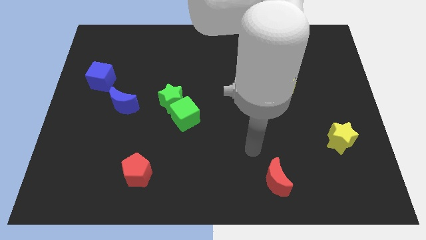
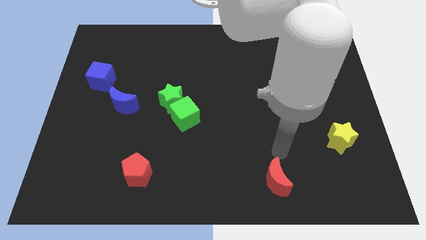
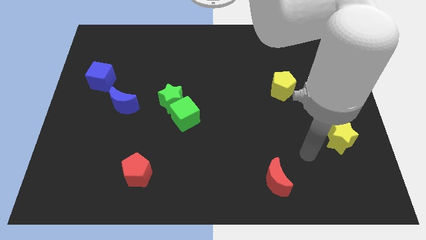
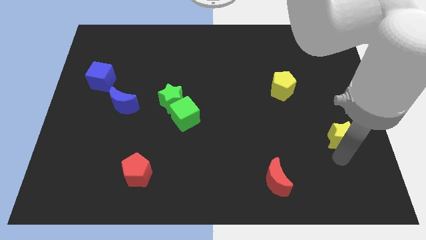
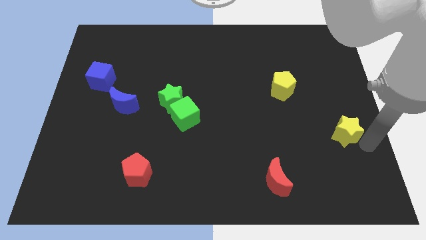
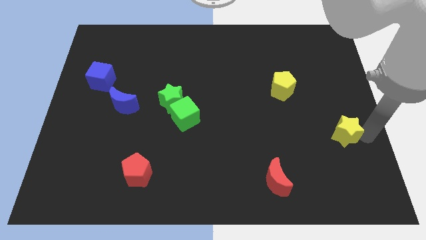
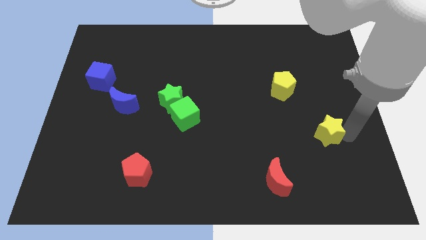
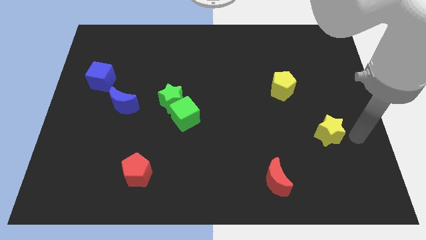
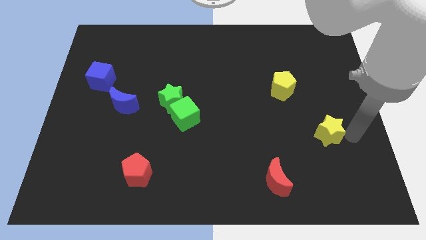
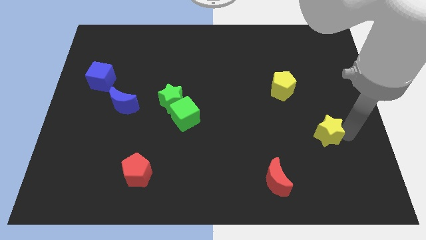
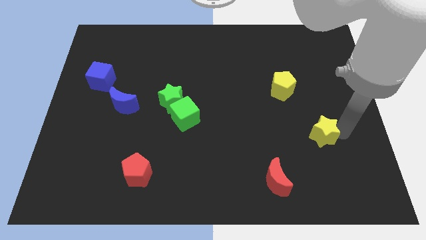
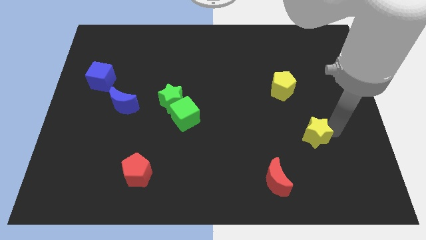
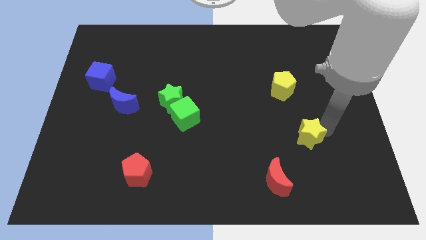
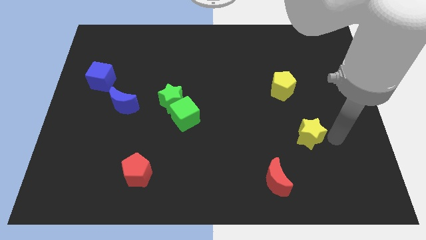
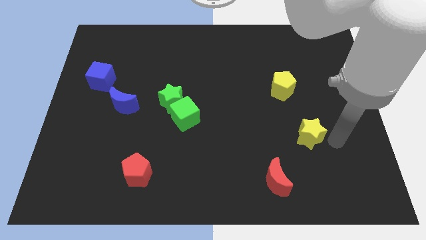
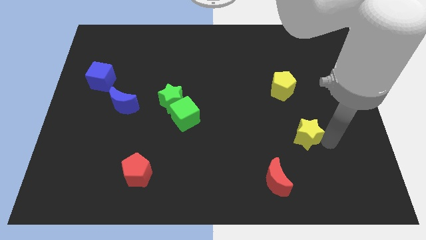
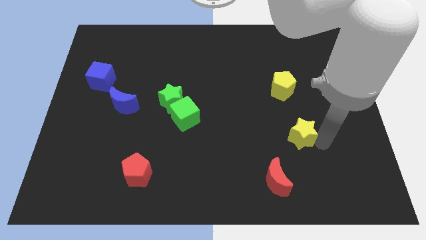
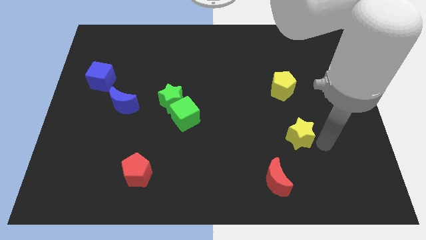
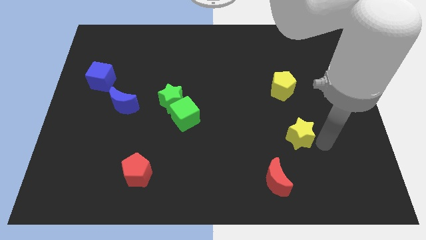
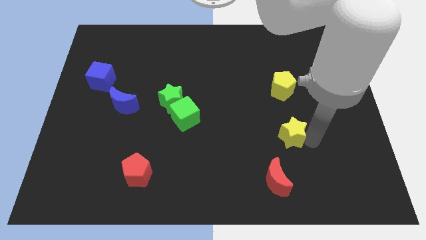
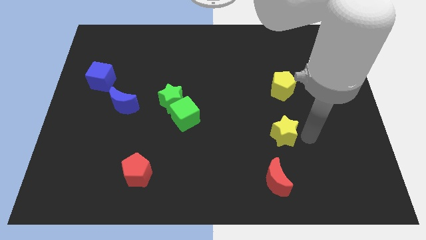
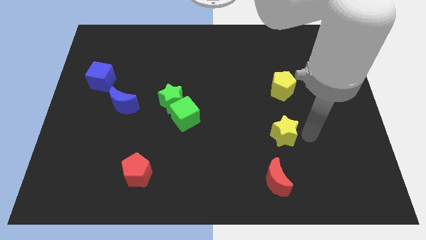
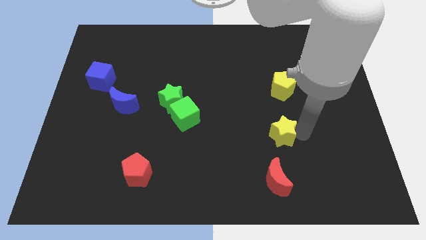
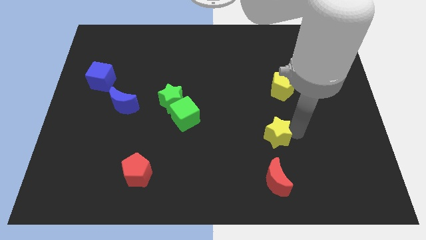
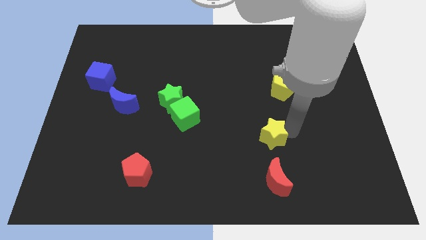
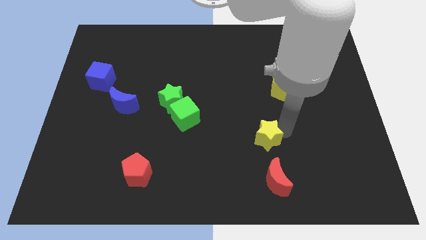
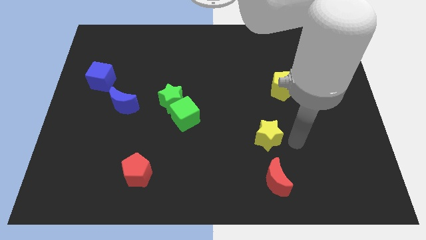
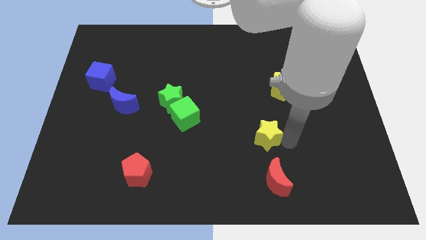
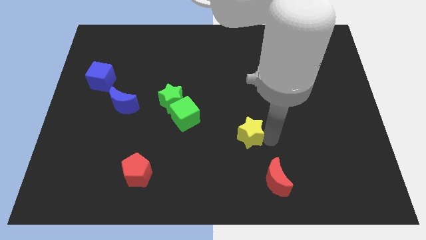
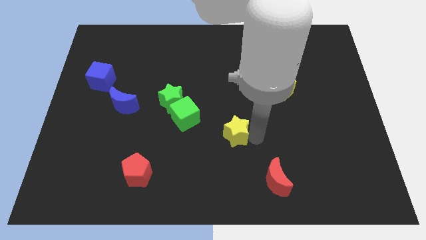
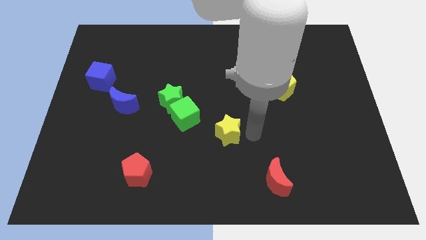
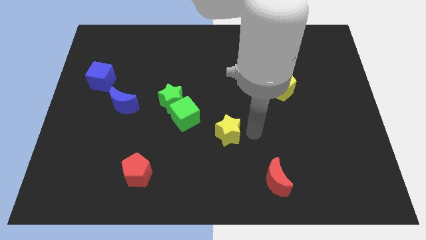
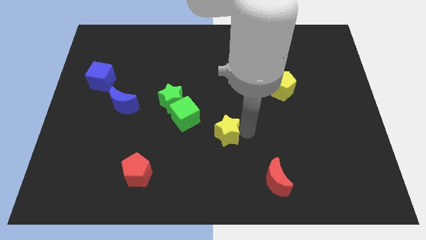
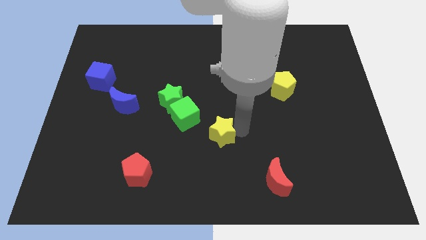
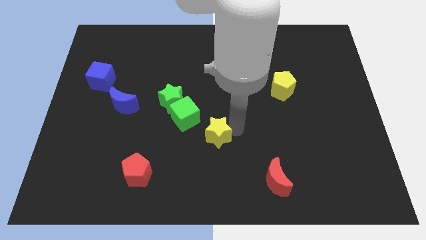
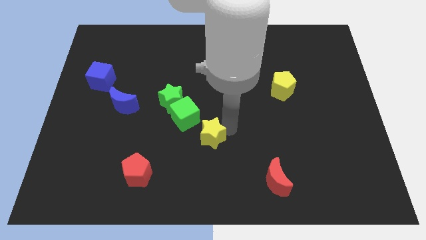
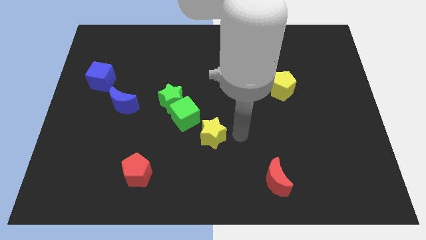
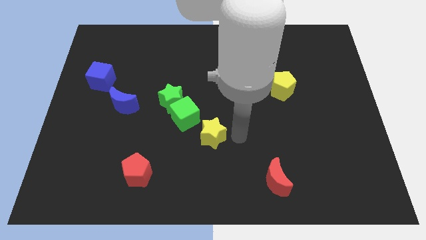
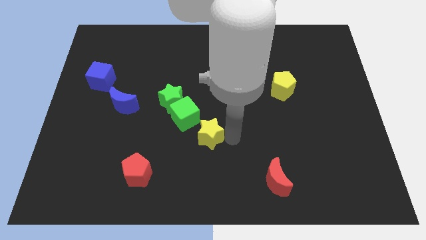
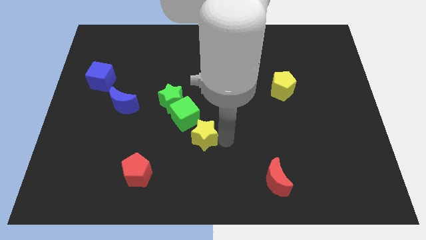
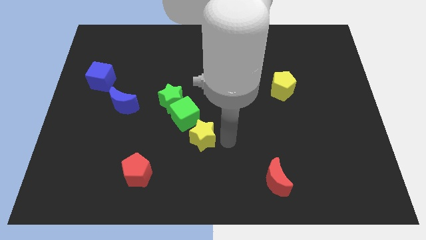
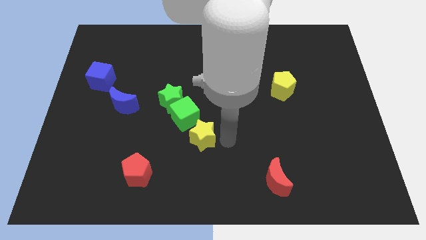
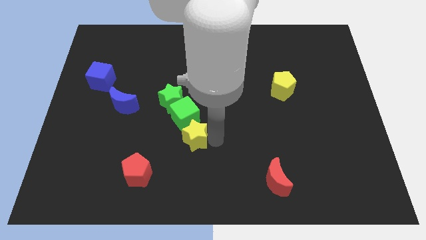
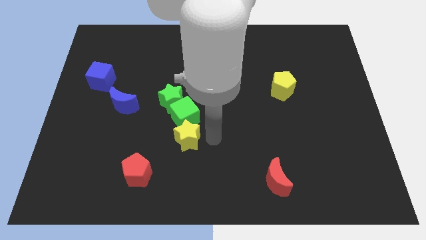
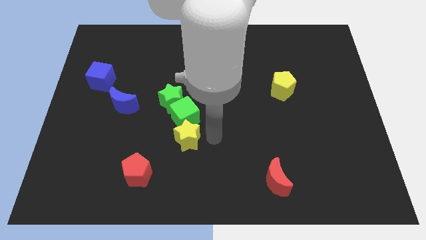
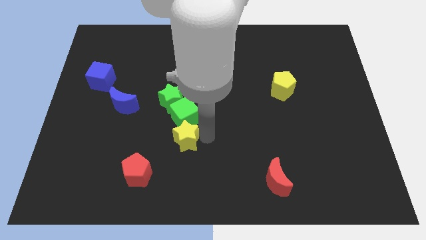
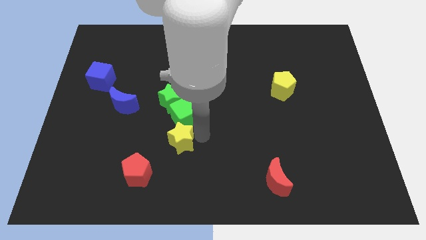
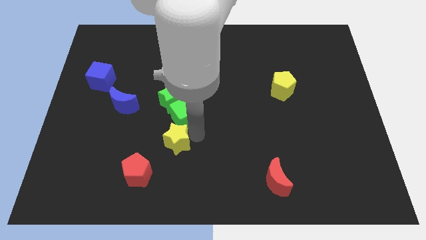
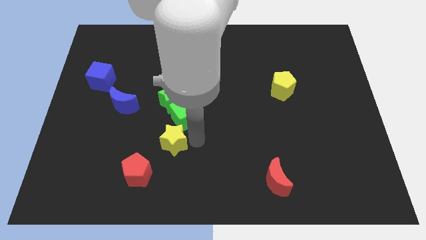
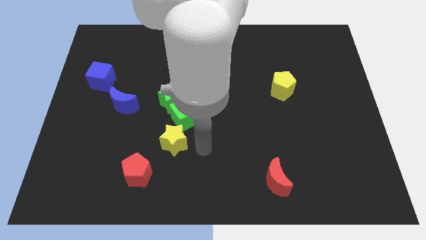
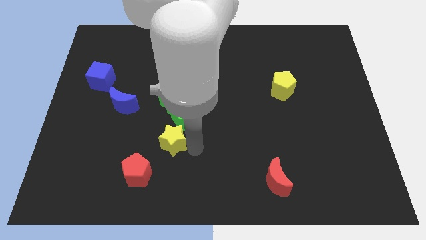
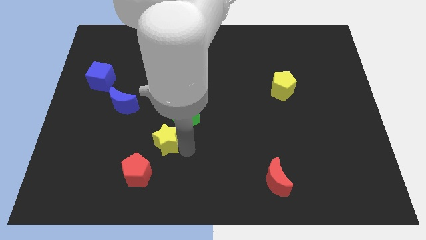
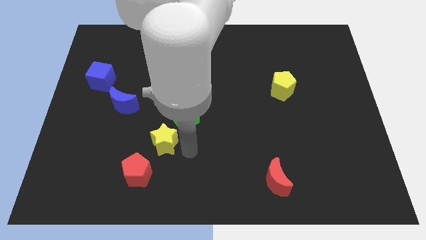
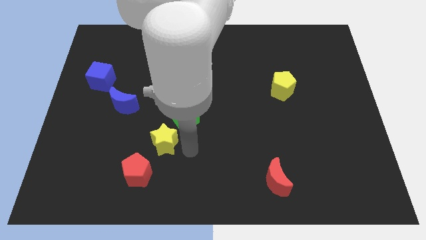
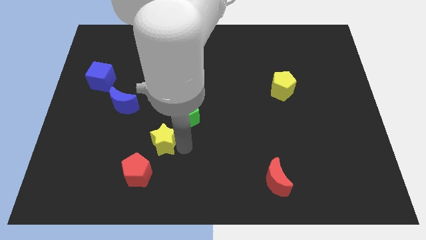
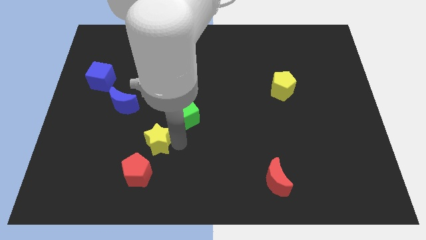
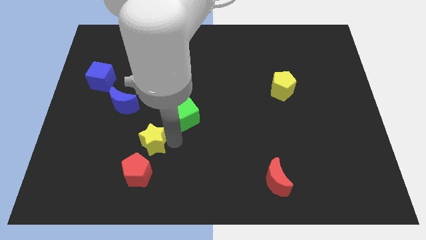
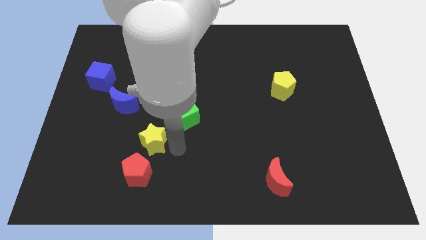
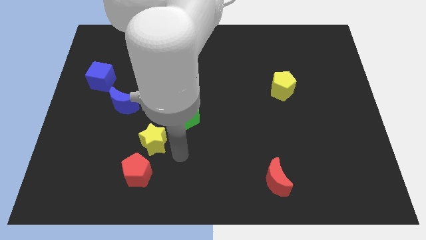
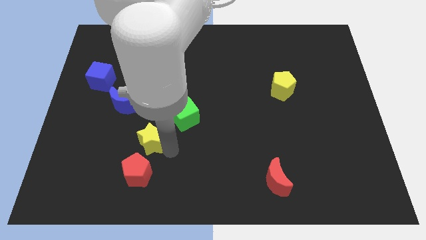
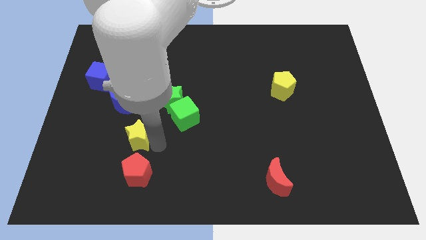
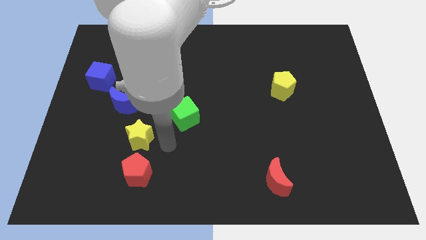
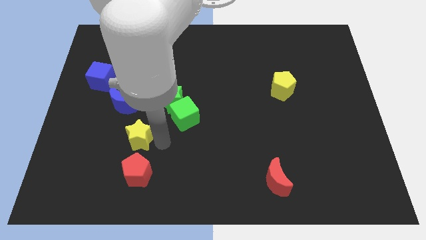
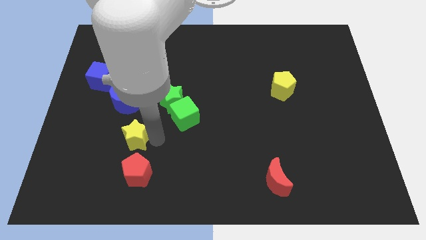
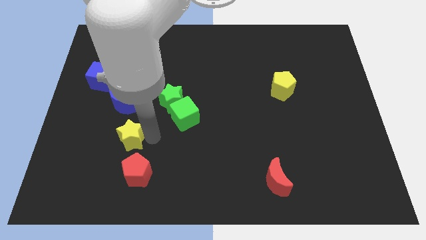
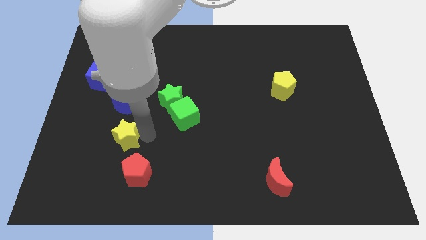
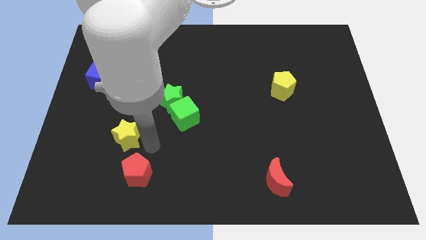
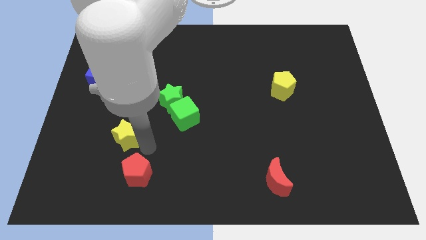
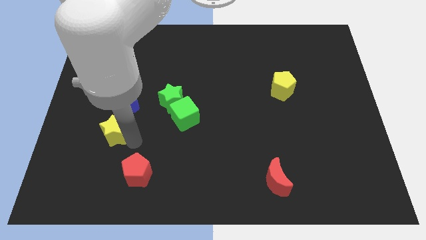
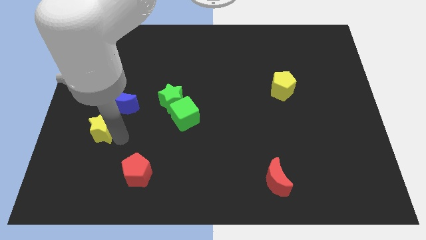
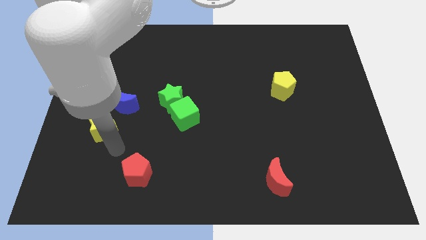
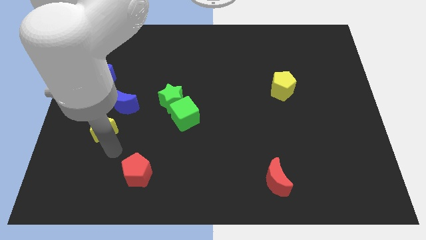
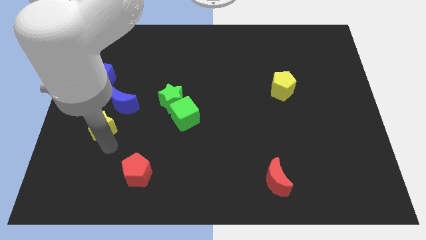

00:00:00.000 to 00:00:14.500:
slide the yellow star to the bottom of the blue cube
